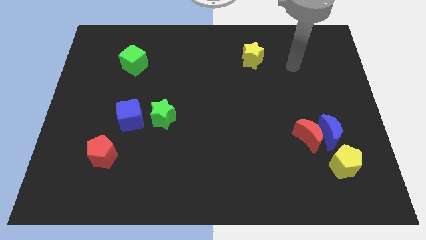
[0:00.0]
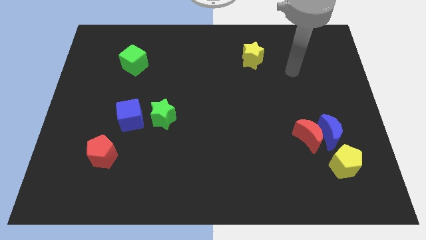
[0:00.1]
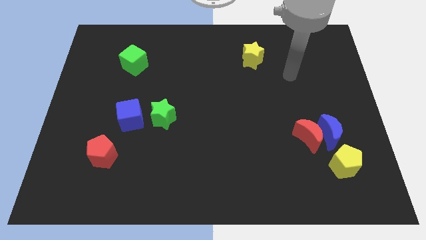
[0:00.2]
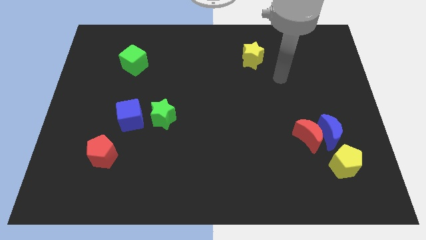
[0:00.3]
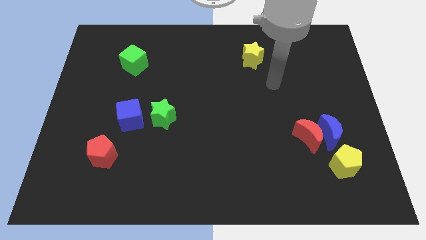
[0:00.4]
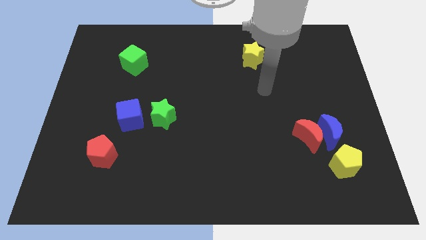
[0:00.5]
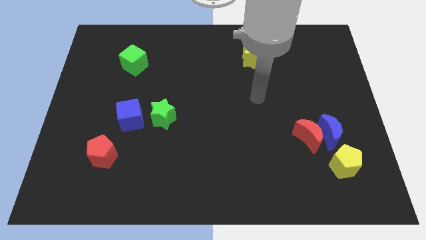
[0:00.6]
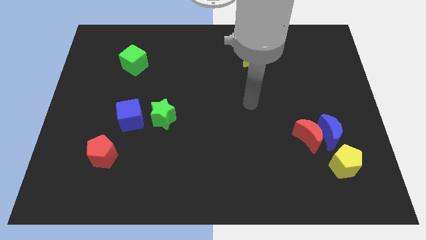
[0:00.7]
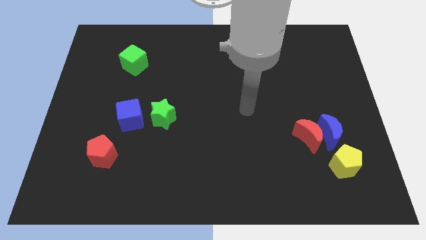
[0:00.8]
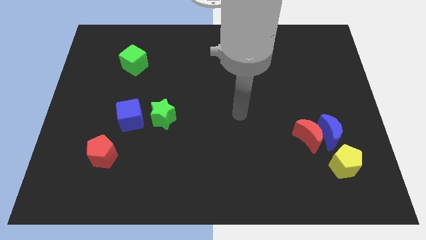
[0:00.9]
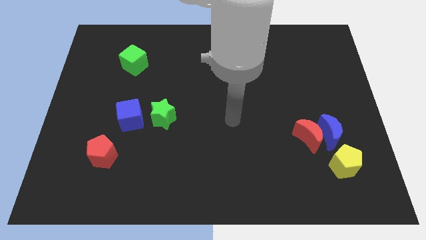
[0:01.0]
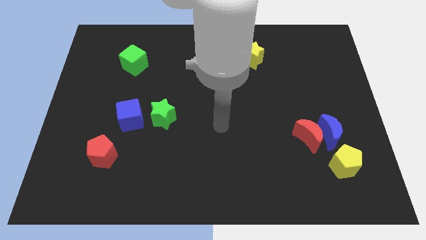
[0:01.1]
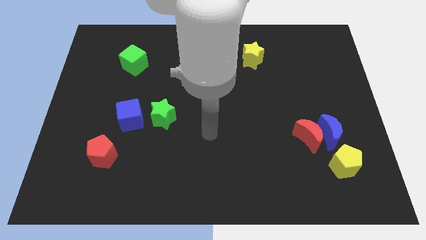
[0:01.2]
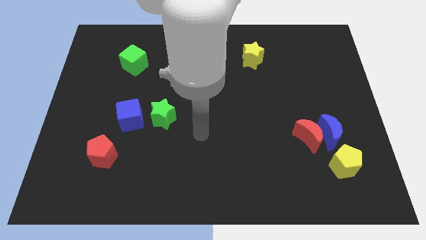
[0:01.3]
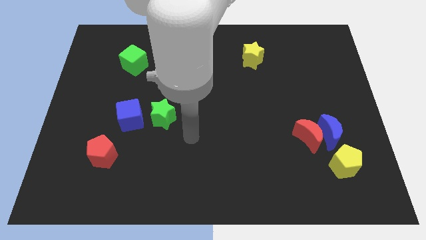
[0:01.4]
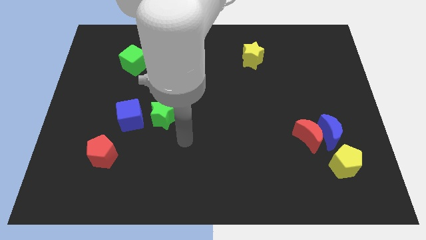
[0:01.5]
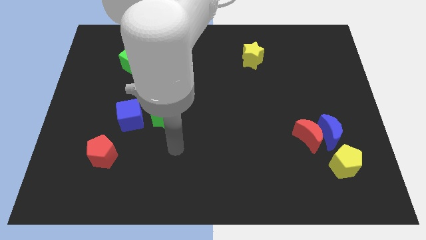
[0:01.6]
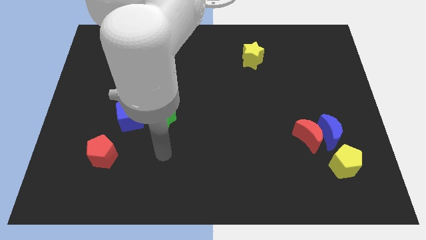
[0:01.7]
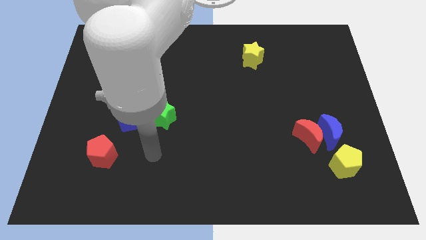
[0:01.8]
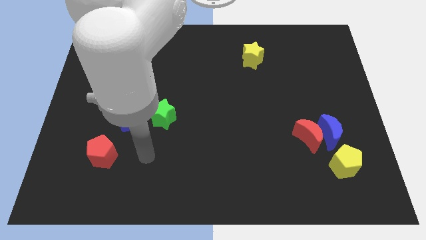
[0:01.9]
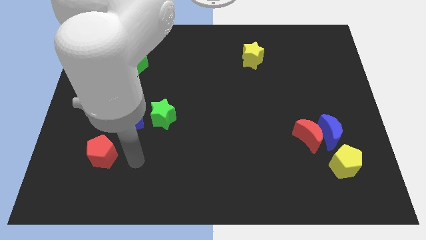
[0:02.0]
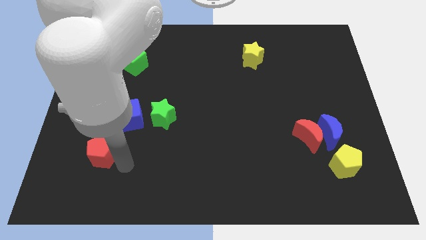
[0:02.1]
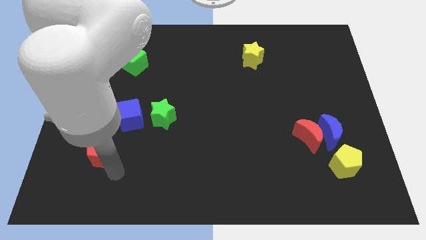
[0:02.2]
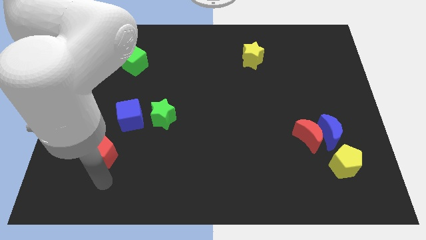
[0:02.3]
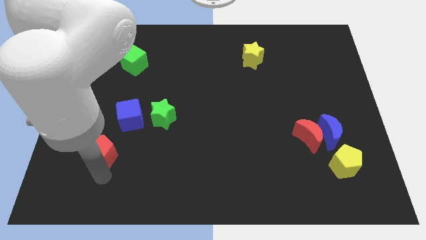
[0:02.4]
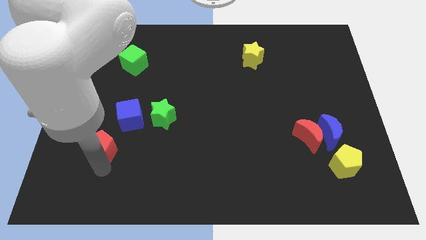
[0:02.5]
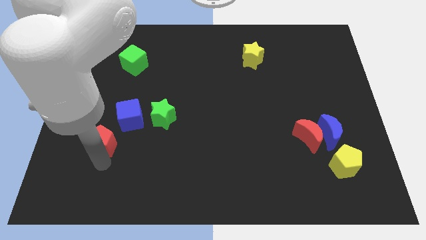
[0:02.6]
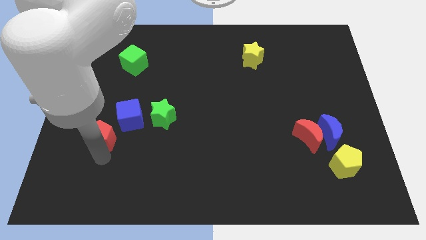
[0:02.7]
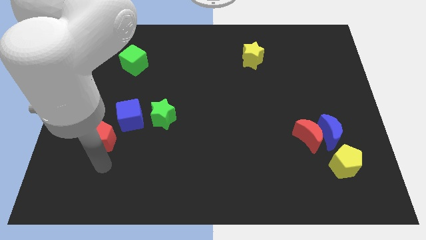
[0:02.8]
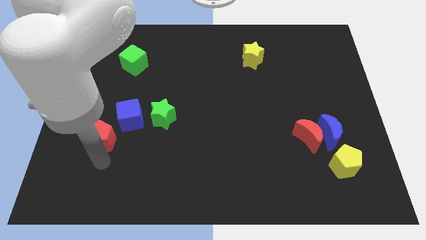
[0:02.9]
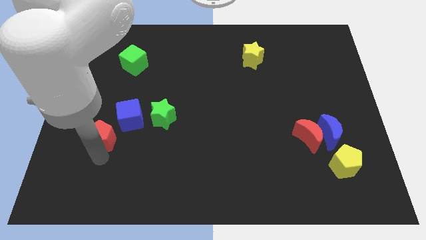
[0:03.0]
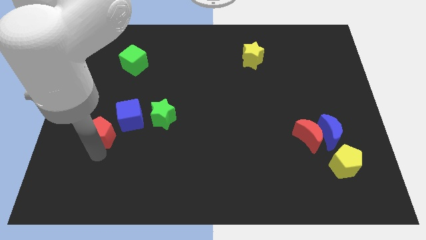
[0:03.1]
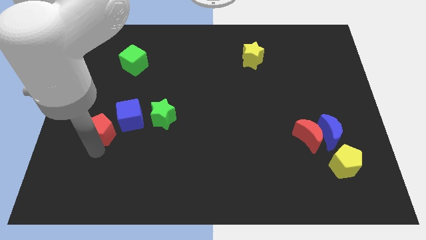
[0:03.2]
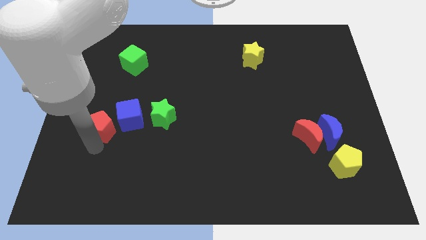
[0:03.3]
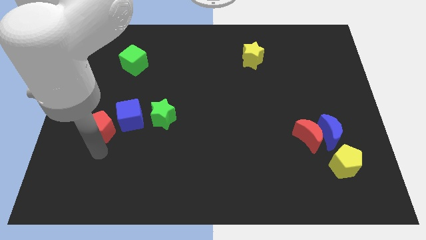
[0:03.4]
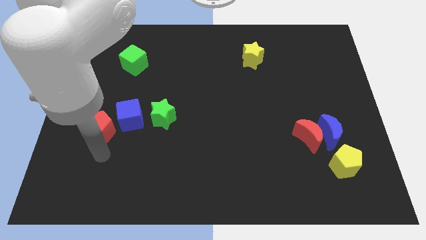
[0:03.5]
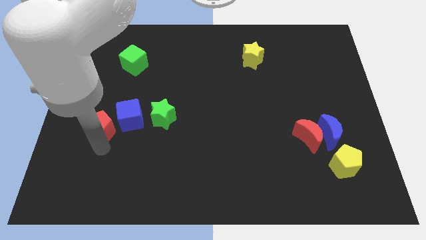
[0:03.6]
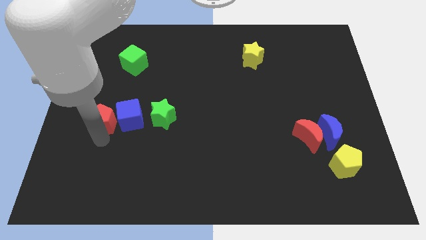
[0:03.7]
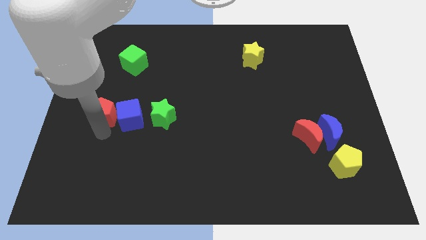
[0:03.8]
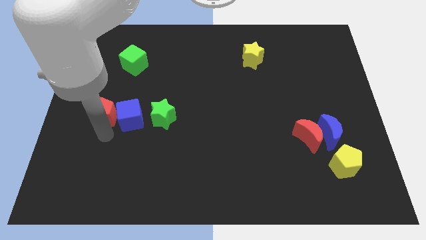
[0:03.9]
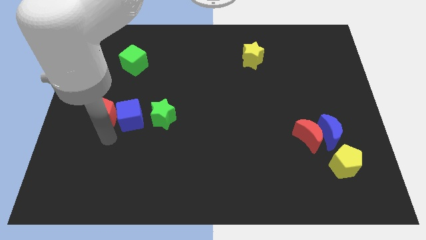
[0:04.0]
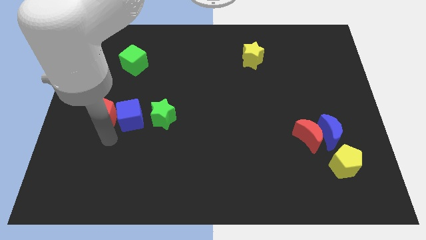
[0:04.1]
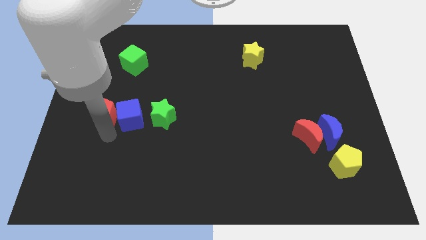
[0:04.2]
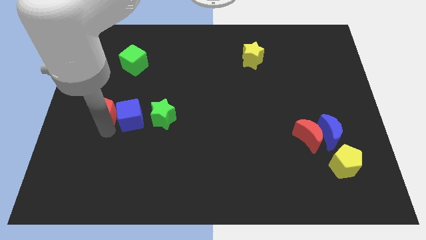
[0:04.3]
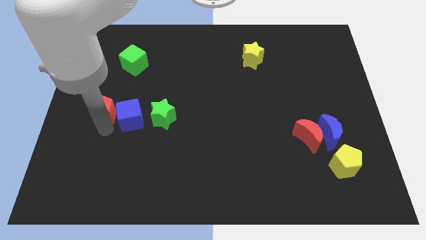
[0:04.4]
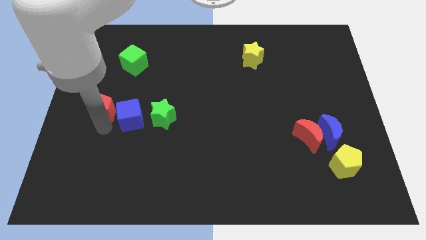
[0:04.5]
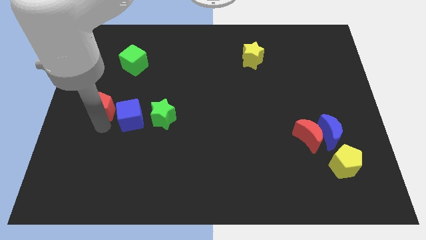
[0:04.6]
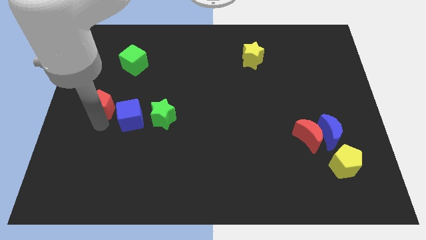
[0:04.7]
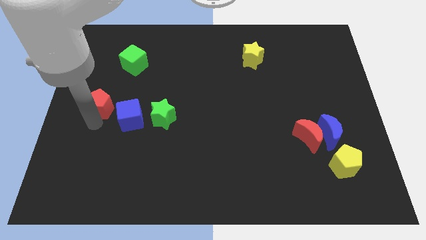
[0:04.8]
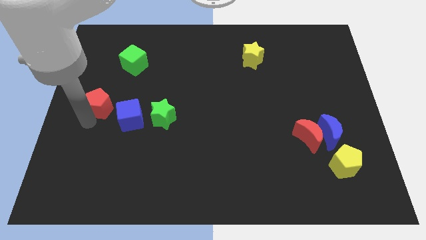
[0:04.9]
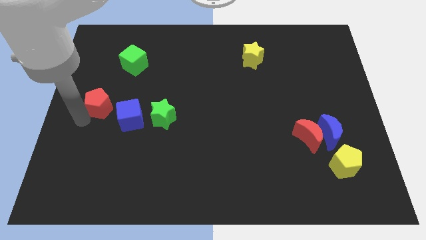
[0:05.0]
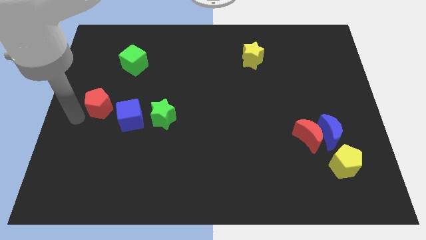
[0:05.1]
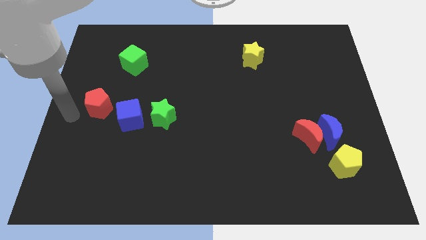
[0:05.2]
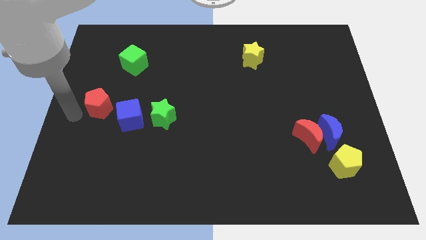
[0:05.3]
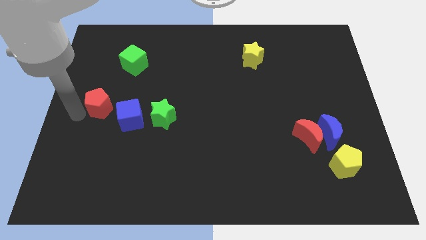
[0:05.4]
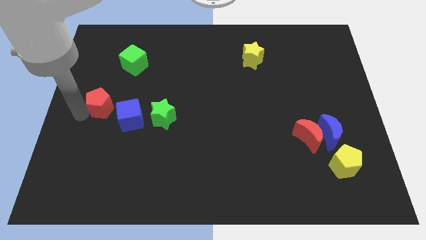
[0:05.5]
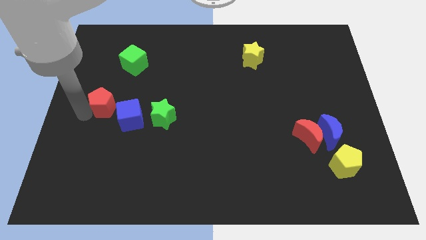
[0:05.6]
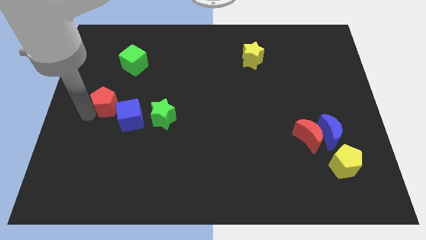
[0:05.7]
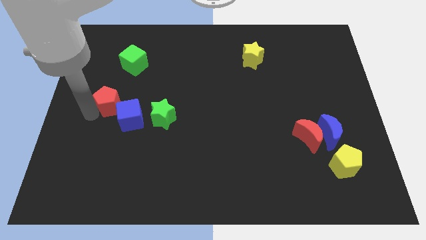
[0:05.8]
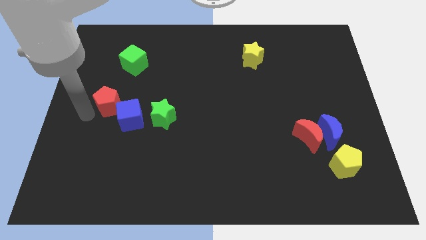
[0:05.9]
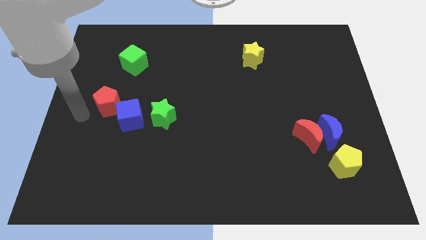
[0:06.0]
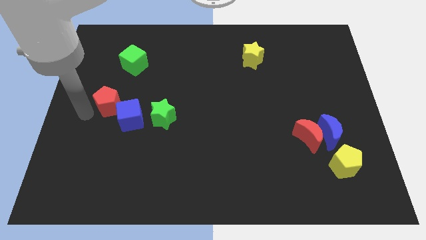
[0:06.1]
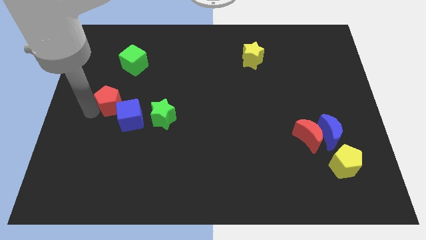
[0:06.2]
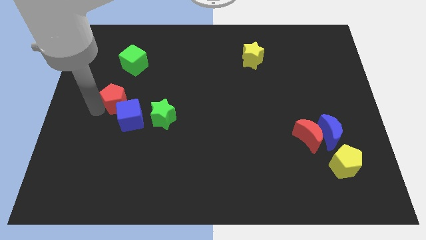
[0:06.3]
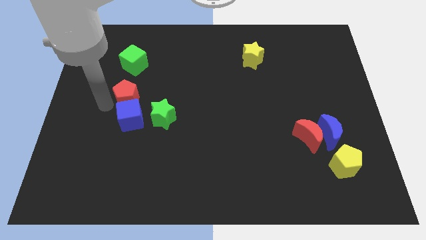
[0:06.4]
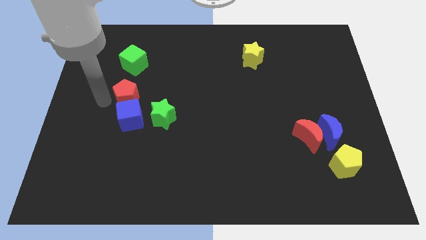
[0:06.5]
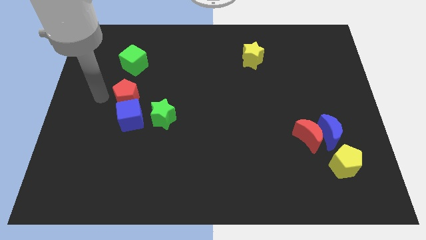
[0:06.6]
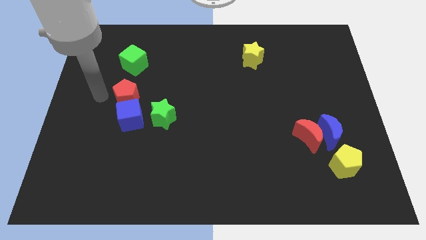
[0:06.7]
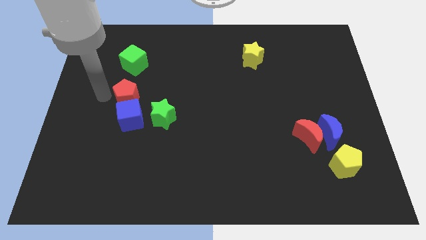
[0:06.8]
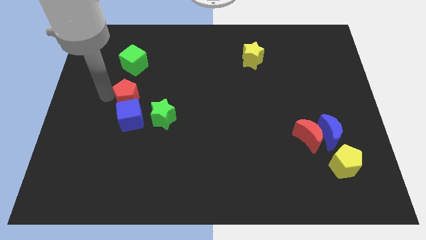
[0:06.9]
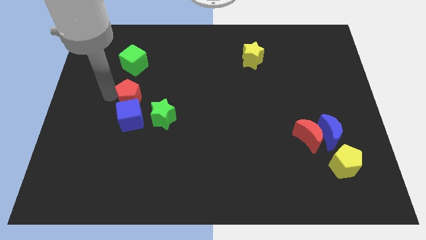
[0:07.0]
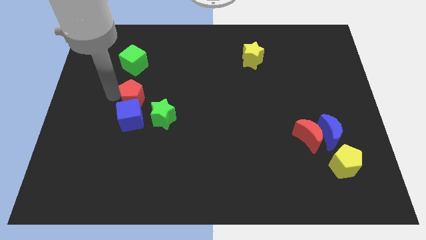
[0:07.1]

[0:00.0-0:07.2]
slide the red pentagon diagonally up and to the right of the blue cube
